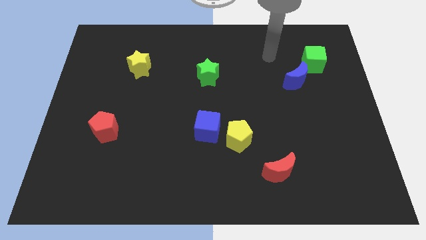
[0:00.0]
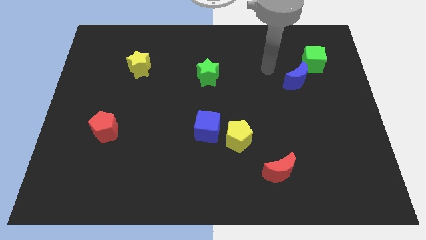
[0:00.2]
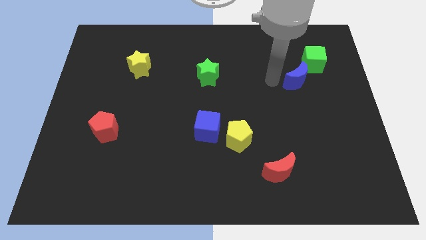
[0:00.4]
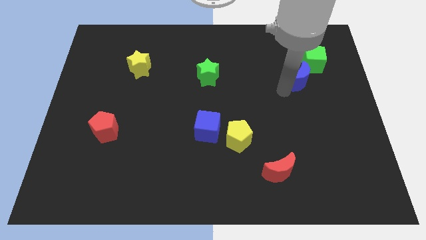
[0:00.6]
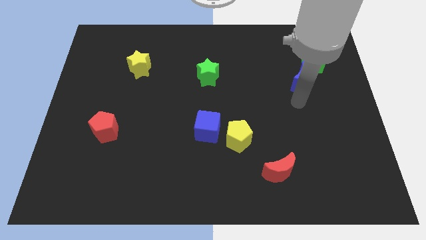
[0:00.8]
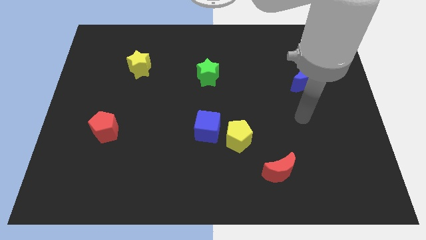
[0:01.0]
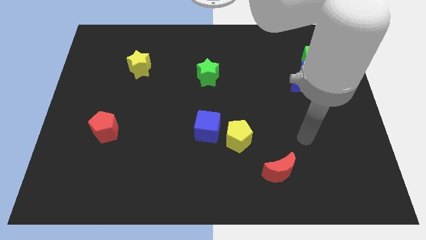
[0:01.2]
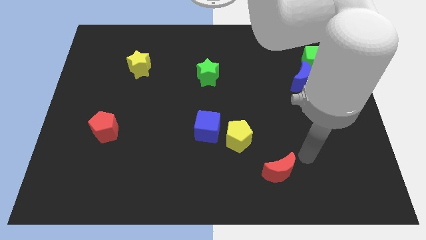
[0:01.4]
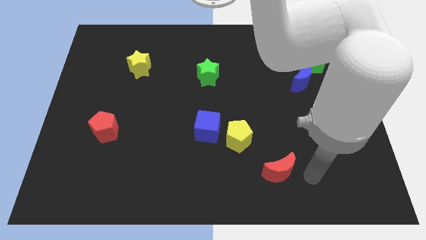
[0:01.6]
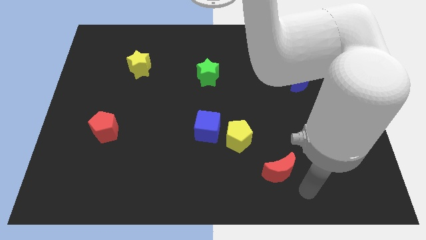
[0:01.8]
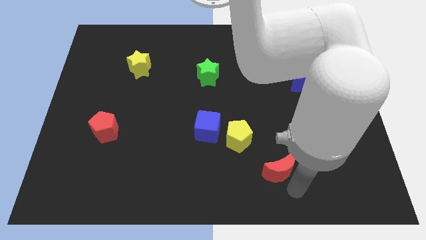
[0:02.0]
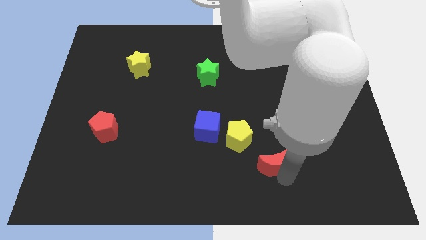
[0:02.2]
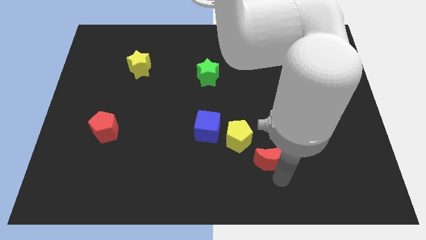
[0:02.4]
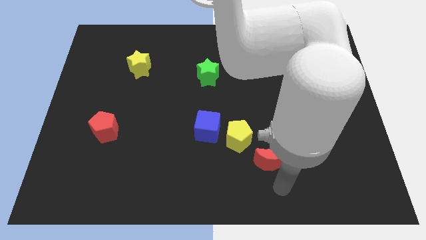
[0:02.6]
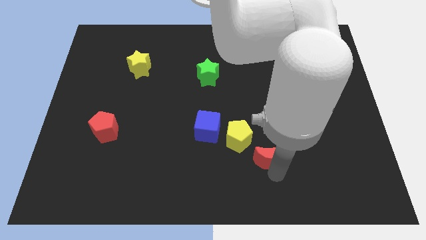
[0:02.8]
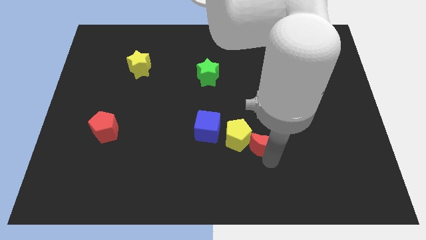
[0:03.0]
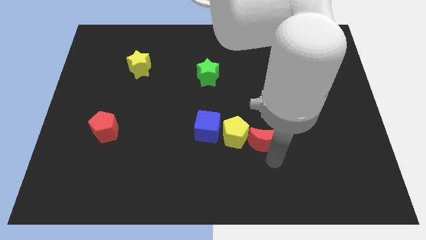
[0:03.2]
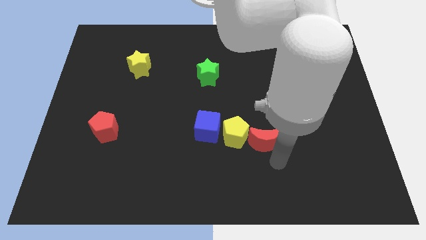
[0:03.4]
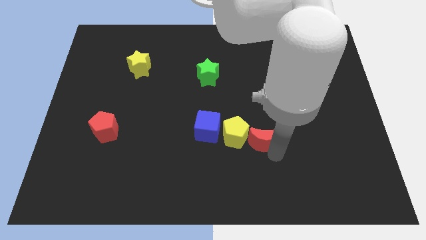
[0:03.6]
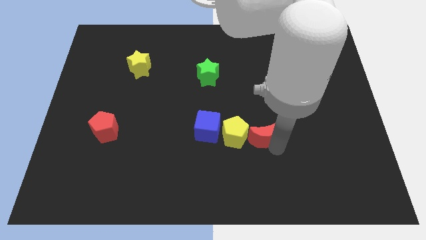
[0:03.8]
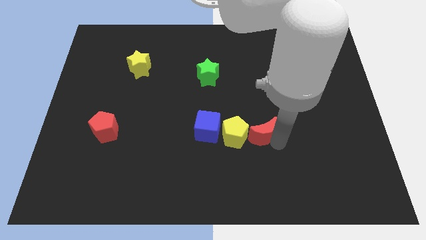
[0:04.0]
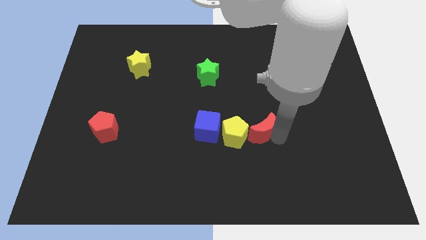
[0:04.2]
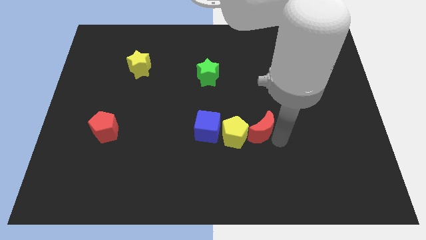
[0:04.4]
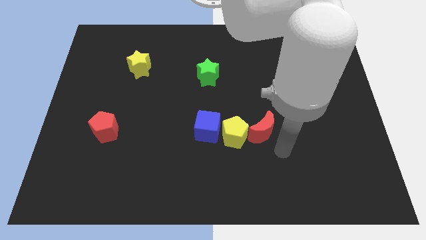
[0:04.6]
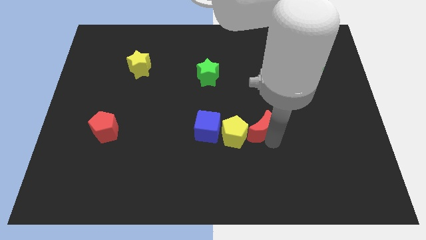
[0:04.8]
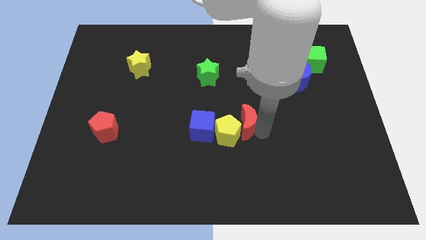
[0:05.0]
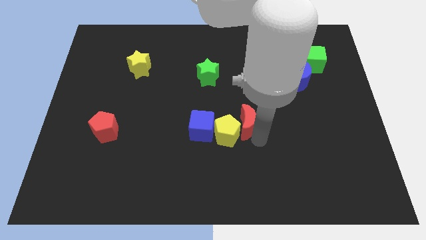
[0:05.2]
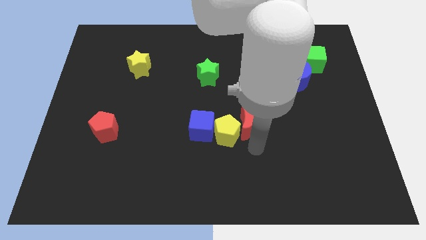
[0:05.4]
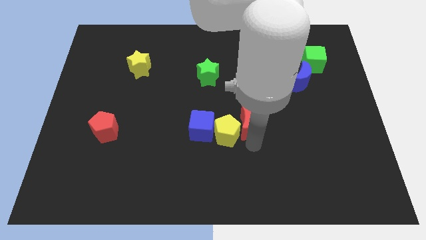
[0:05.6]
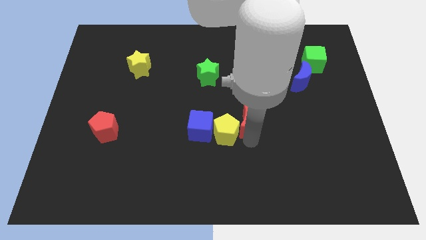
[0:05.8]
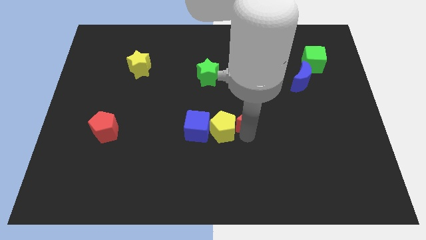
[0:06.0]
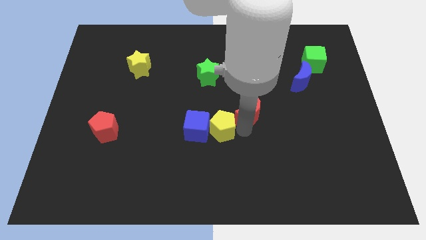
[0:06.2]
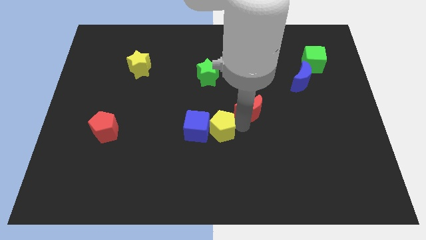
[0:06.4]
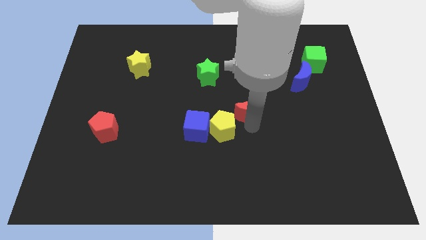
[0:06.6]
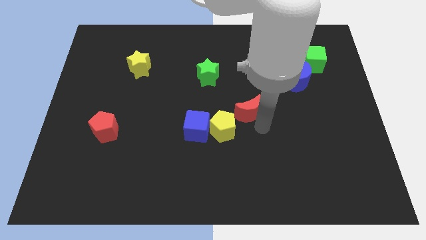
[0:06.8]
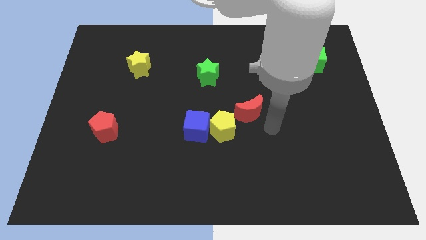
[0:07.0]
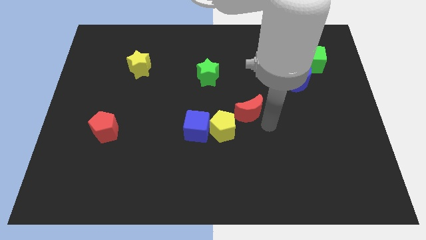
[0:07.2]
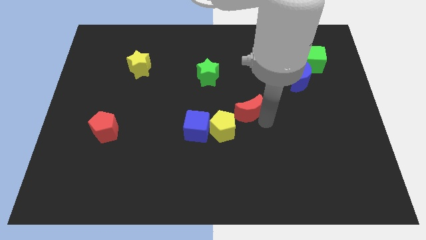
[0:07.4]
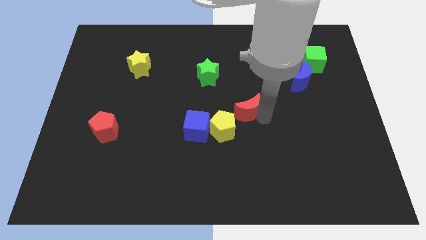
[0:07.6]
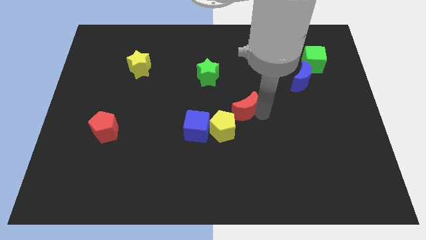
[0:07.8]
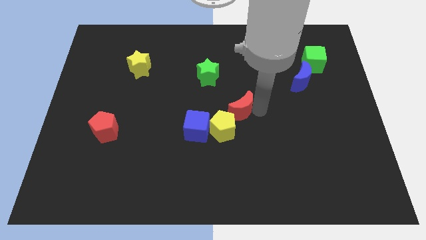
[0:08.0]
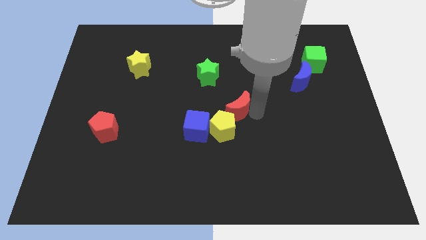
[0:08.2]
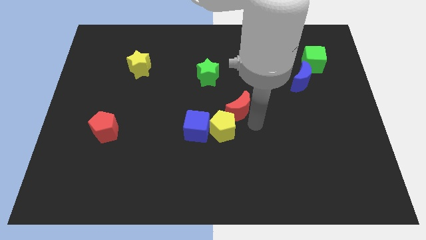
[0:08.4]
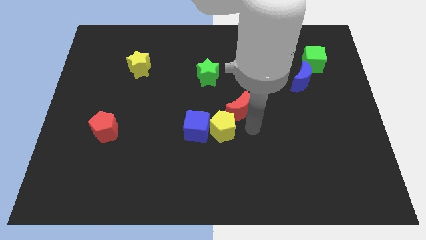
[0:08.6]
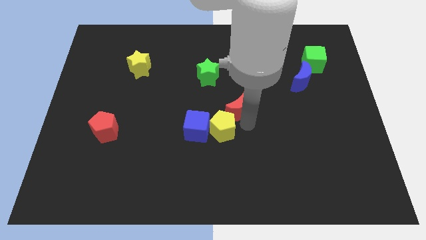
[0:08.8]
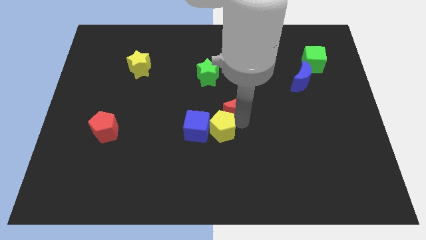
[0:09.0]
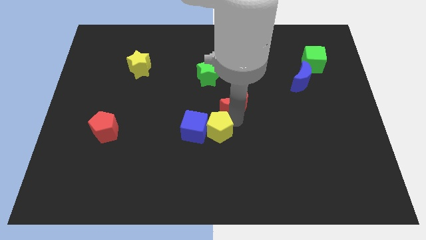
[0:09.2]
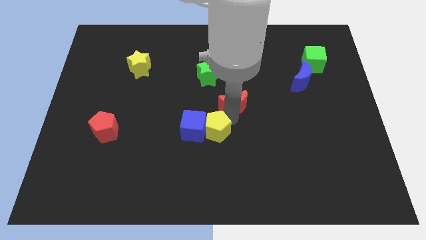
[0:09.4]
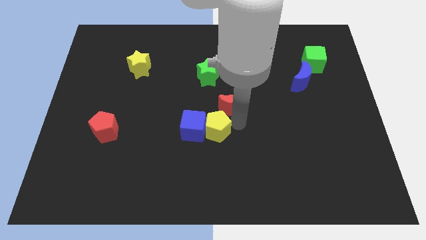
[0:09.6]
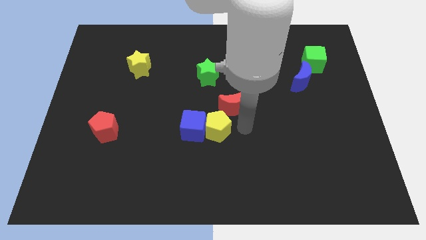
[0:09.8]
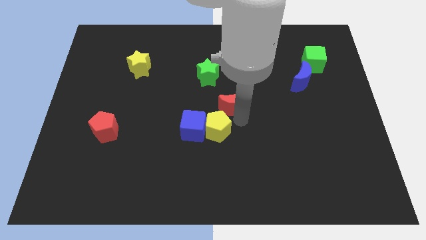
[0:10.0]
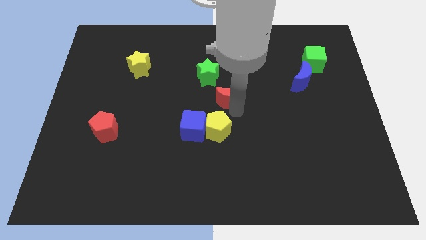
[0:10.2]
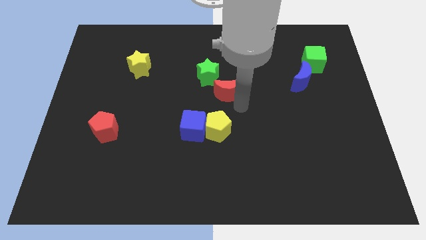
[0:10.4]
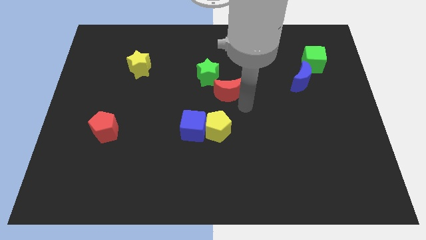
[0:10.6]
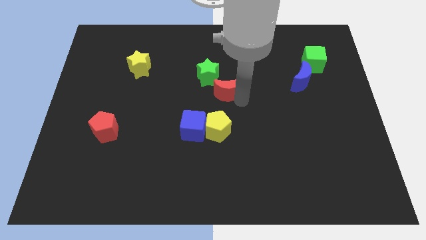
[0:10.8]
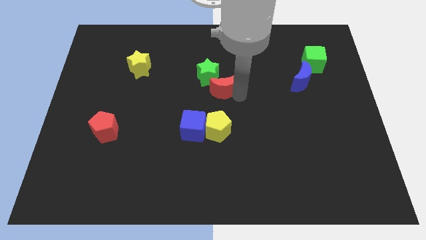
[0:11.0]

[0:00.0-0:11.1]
push the red moon close to the green star

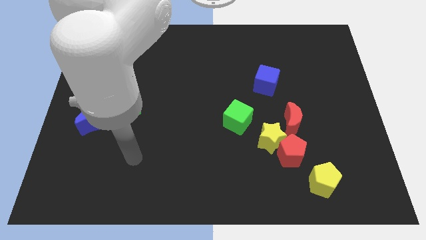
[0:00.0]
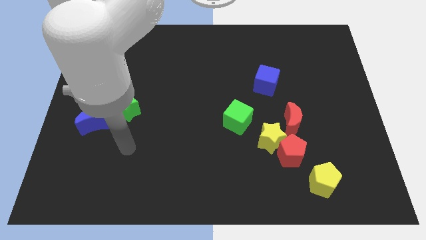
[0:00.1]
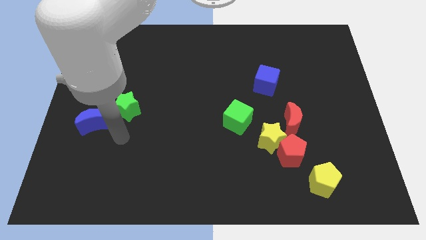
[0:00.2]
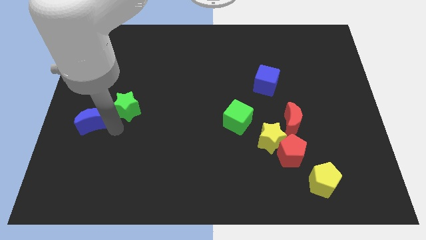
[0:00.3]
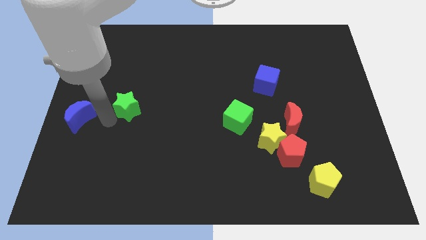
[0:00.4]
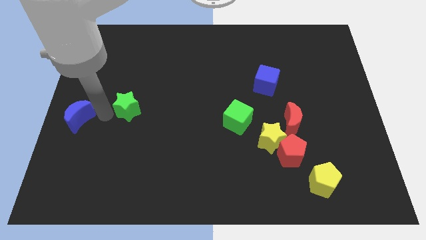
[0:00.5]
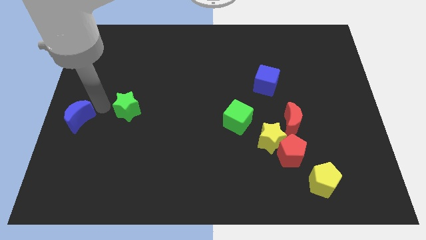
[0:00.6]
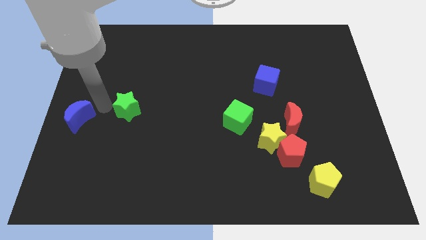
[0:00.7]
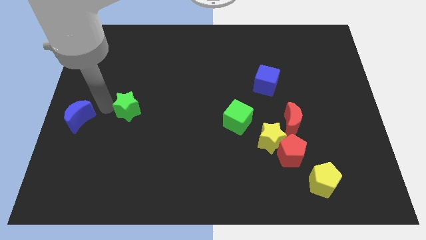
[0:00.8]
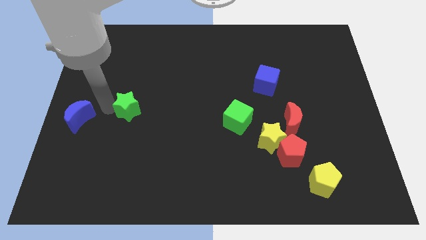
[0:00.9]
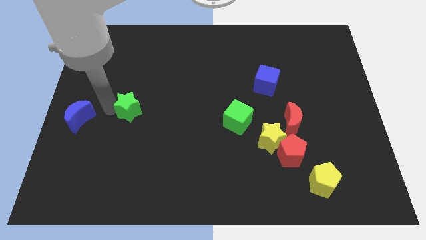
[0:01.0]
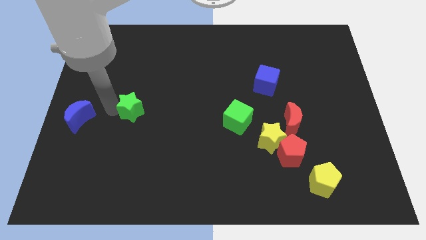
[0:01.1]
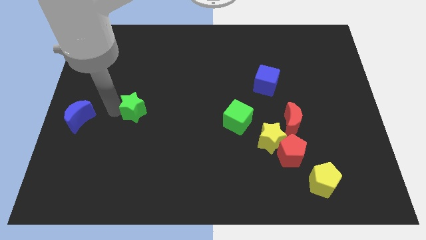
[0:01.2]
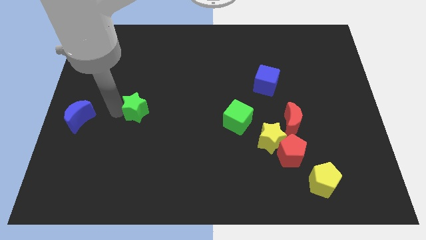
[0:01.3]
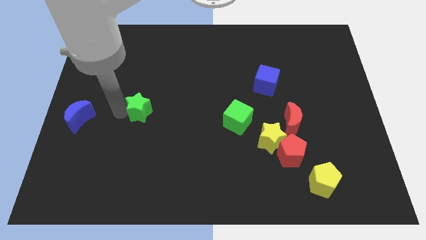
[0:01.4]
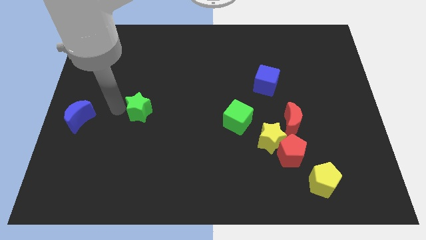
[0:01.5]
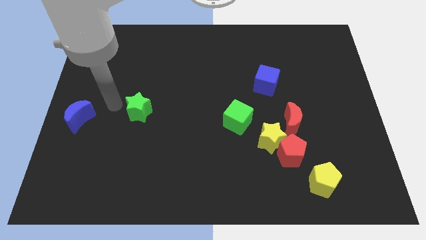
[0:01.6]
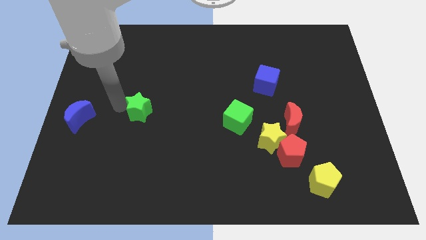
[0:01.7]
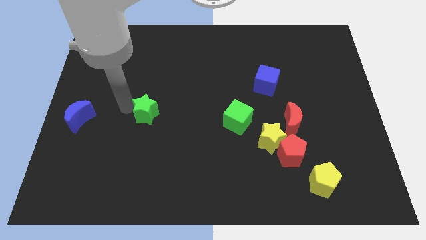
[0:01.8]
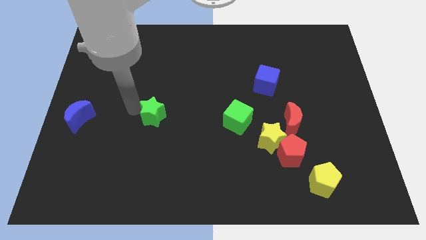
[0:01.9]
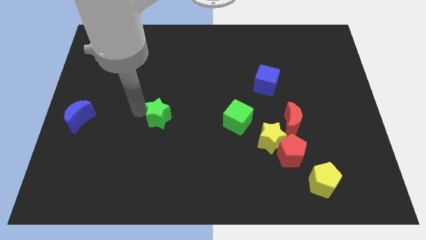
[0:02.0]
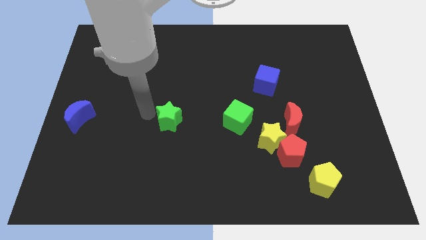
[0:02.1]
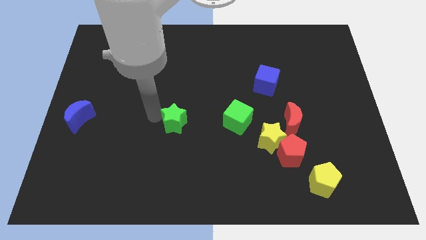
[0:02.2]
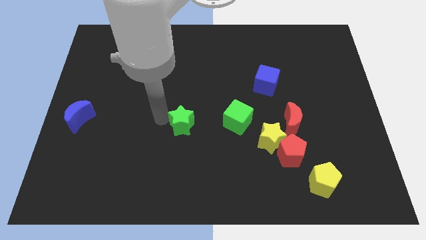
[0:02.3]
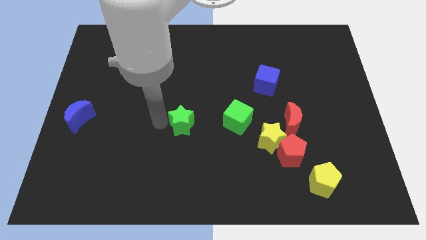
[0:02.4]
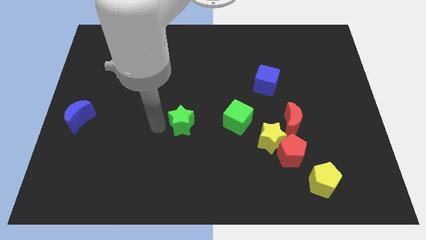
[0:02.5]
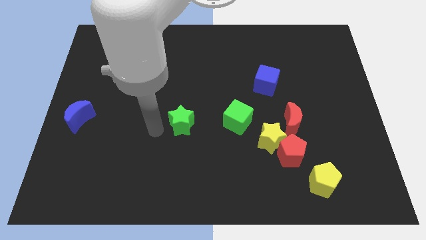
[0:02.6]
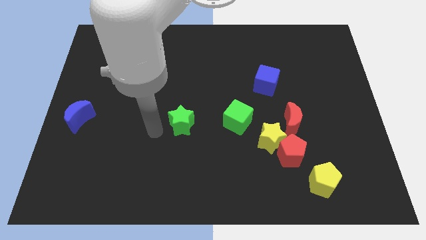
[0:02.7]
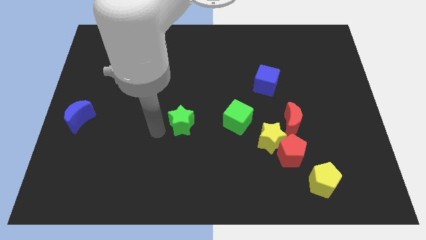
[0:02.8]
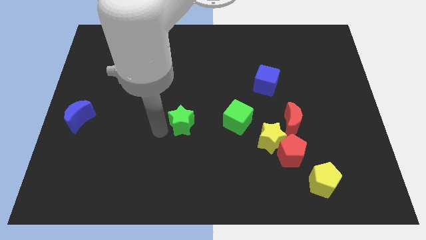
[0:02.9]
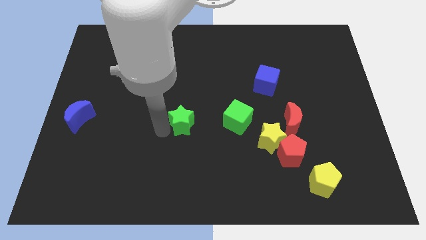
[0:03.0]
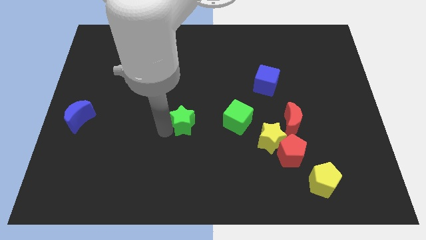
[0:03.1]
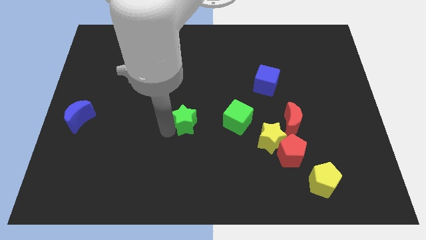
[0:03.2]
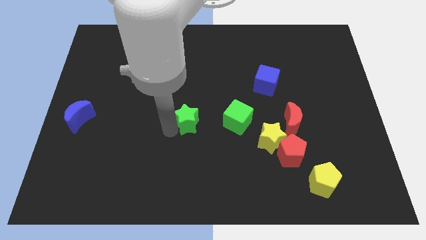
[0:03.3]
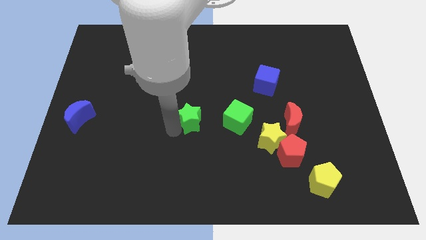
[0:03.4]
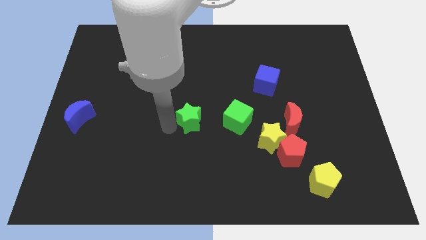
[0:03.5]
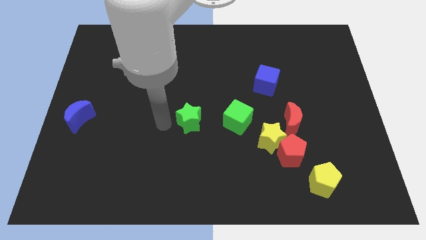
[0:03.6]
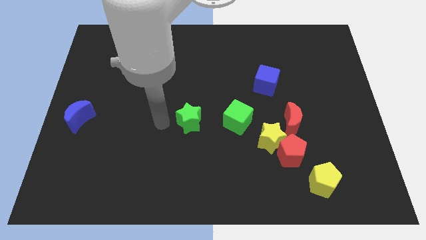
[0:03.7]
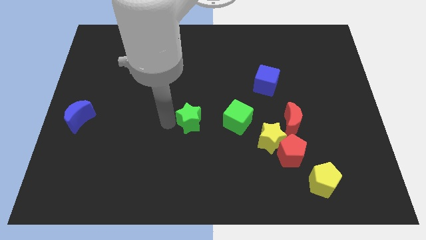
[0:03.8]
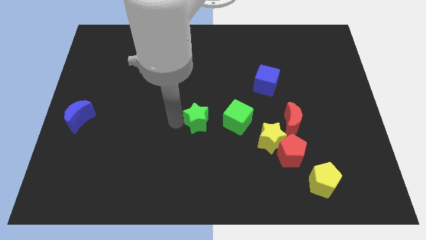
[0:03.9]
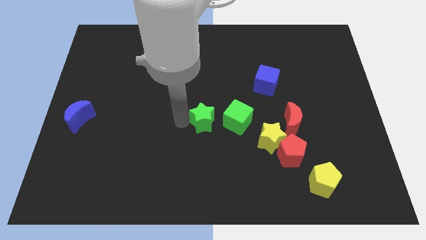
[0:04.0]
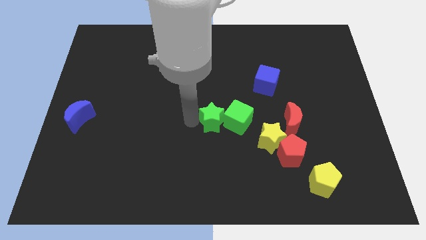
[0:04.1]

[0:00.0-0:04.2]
slide the green star next to the green cube
